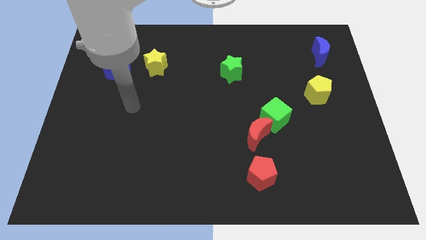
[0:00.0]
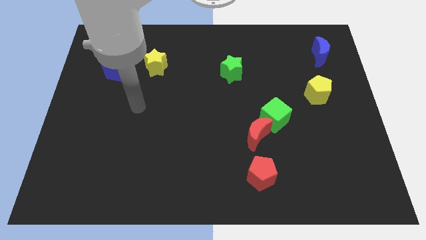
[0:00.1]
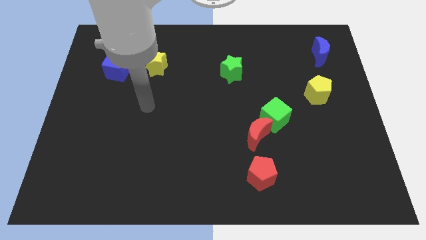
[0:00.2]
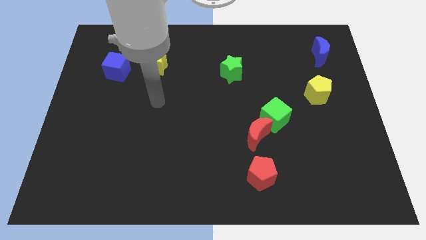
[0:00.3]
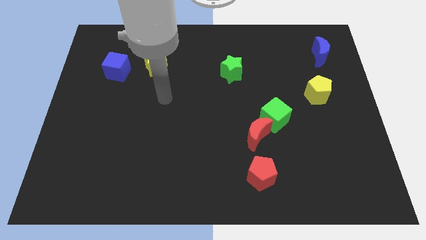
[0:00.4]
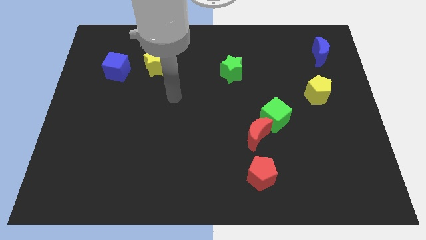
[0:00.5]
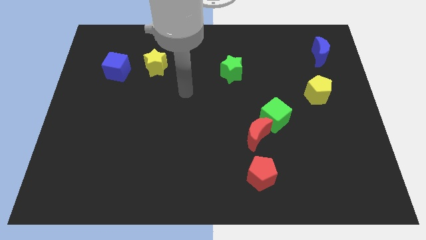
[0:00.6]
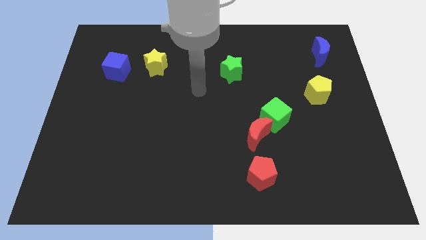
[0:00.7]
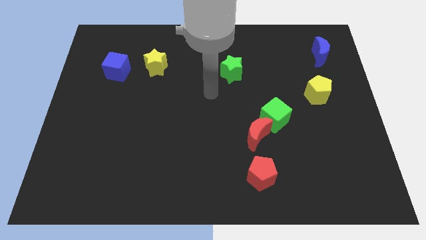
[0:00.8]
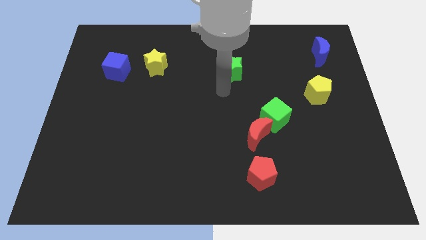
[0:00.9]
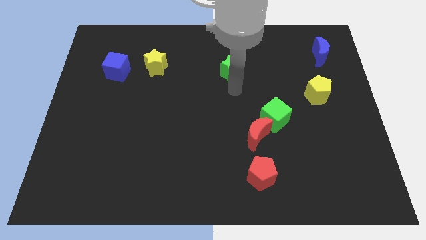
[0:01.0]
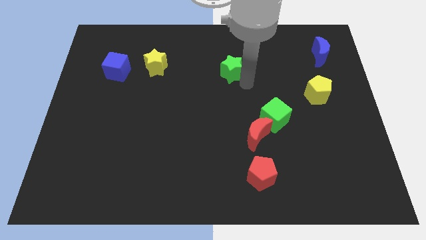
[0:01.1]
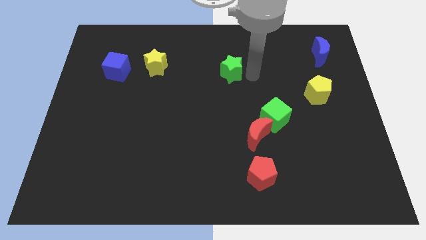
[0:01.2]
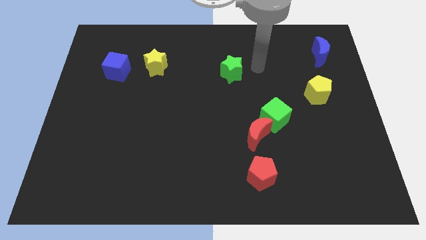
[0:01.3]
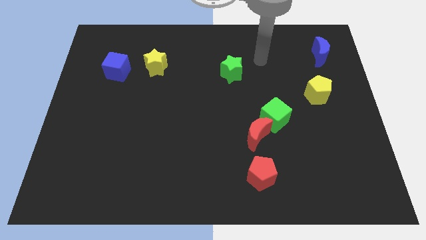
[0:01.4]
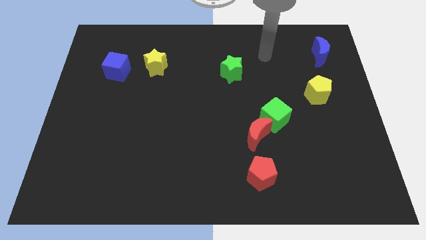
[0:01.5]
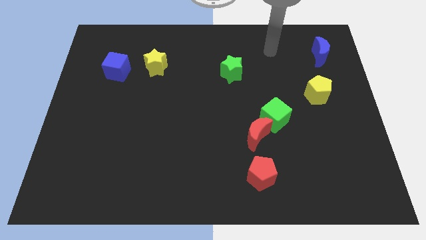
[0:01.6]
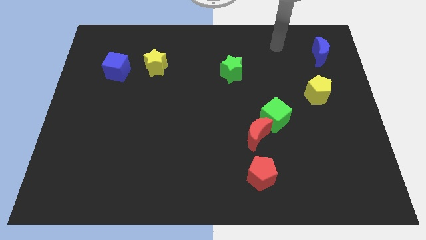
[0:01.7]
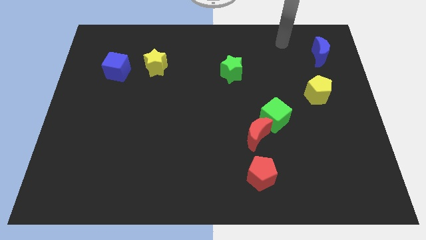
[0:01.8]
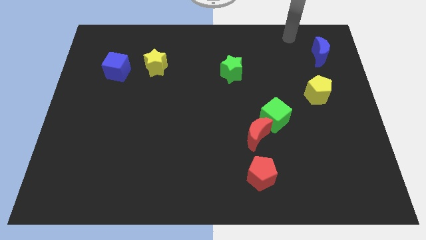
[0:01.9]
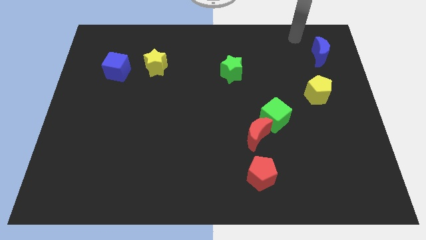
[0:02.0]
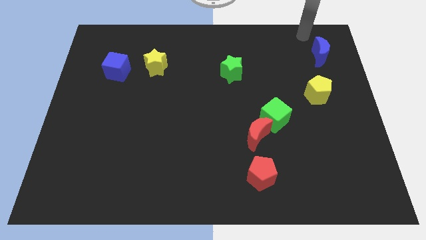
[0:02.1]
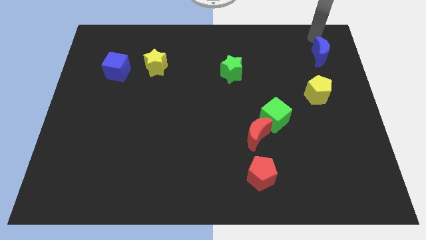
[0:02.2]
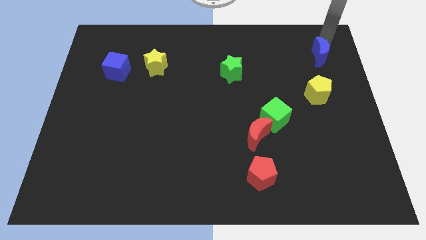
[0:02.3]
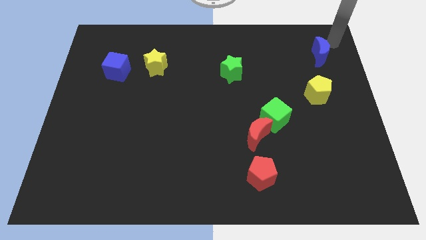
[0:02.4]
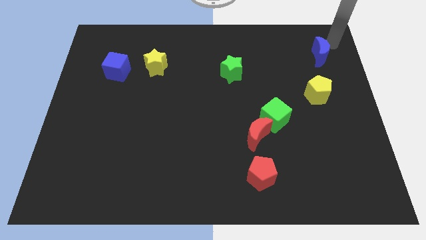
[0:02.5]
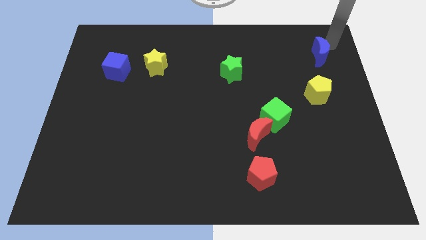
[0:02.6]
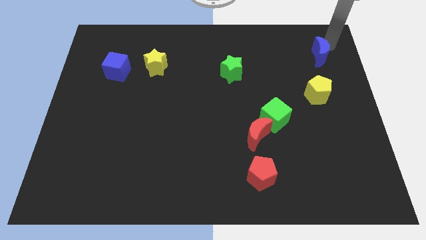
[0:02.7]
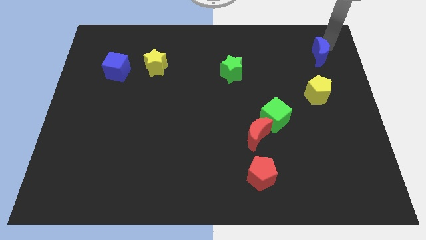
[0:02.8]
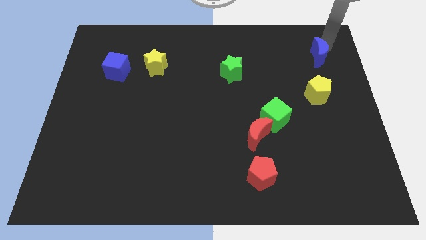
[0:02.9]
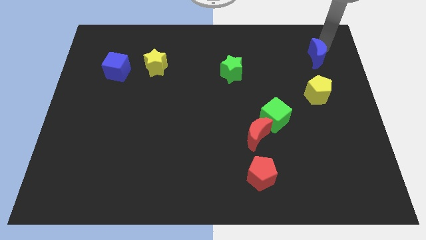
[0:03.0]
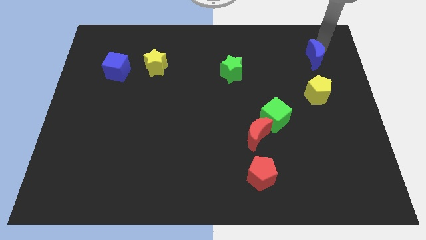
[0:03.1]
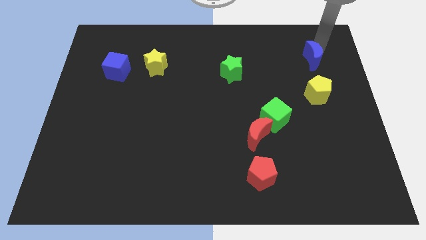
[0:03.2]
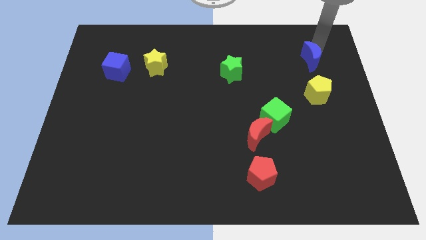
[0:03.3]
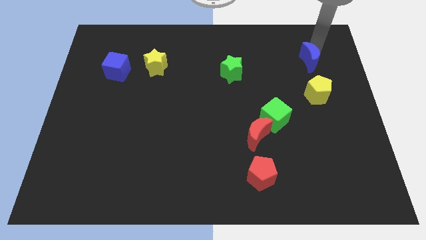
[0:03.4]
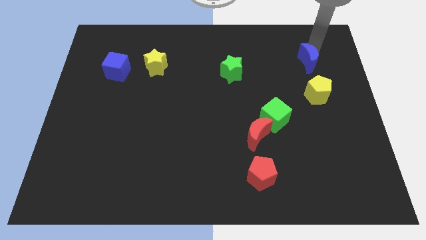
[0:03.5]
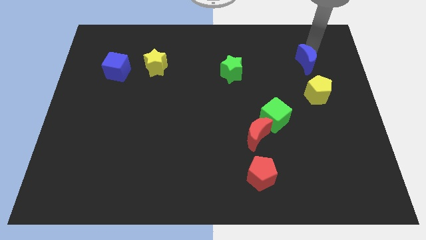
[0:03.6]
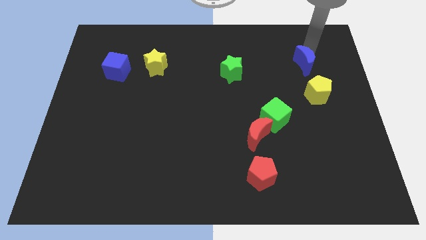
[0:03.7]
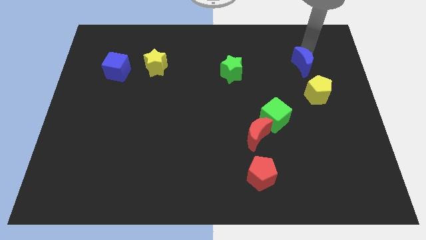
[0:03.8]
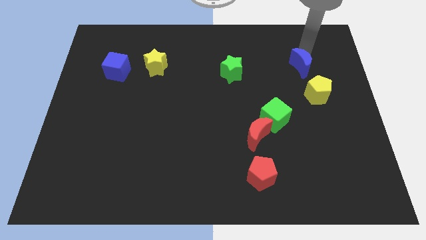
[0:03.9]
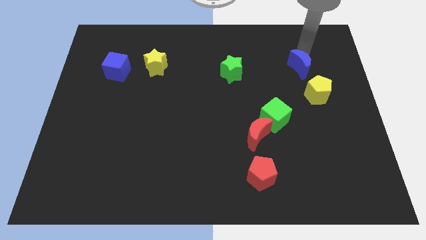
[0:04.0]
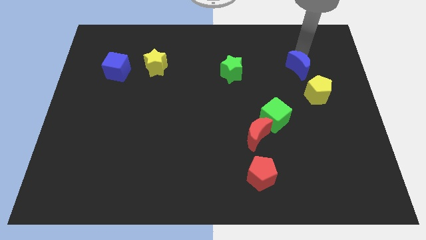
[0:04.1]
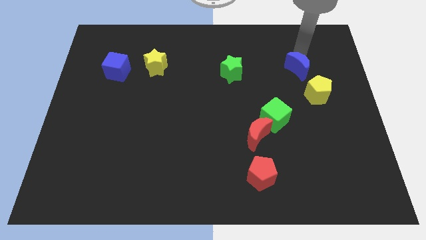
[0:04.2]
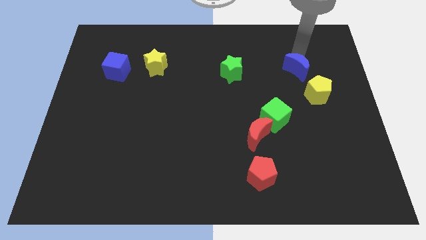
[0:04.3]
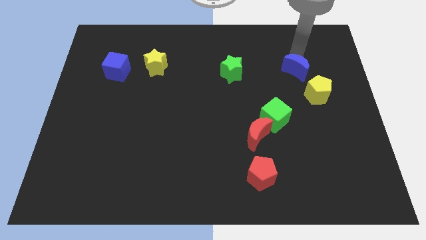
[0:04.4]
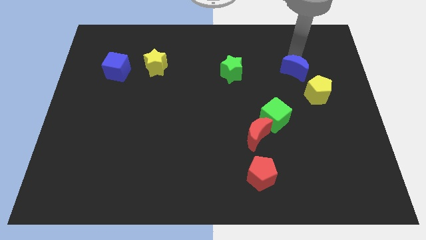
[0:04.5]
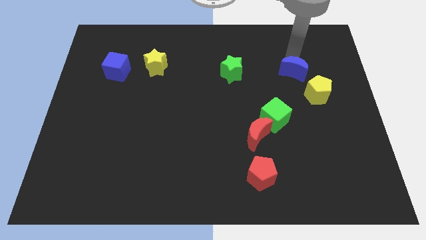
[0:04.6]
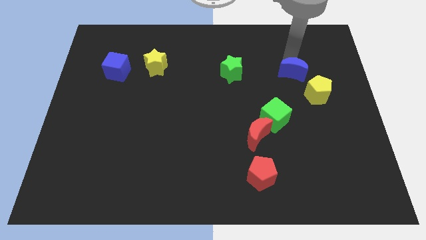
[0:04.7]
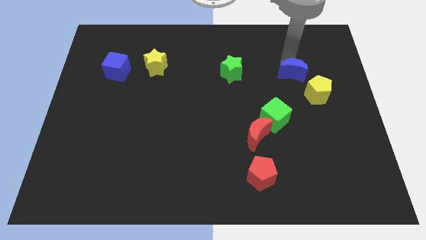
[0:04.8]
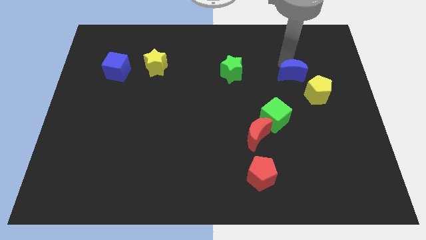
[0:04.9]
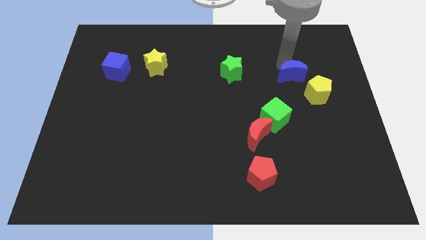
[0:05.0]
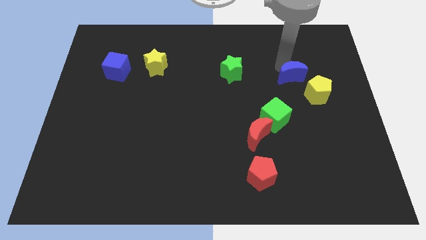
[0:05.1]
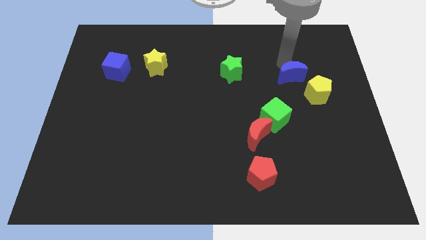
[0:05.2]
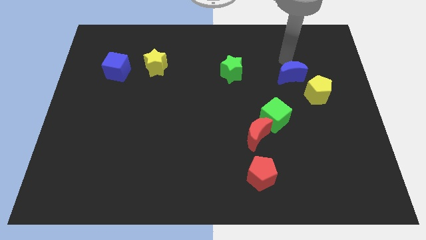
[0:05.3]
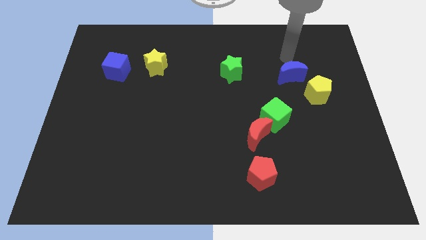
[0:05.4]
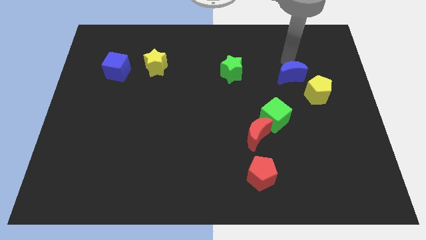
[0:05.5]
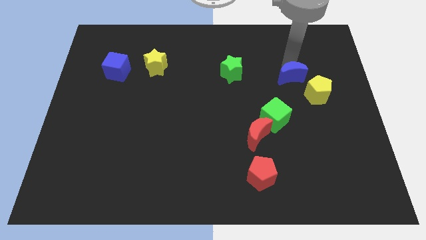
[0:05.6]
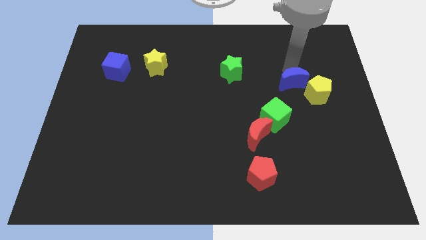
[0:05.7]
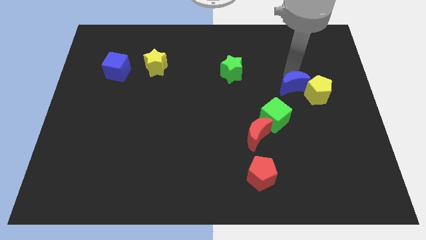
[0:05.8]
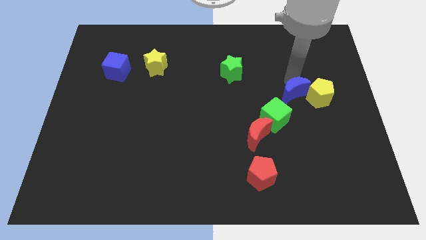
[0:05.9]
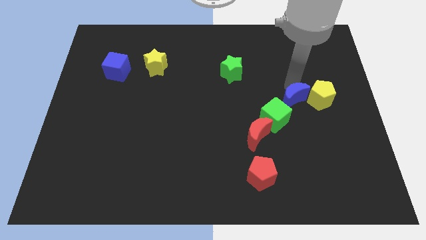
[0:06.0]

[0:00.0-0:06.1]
move the blue moon to the bottom left side of the yellow pentagon
